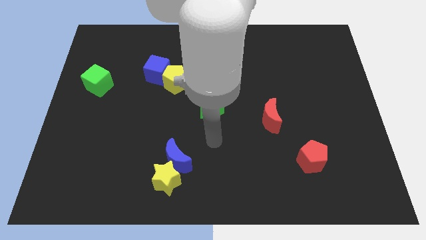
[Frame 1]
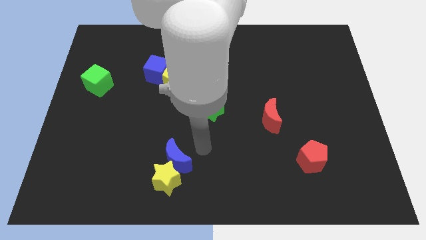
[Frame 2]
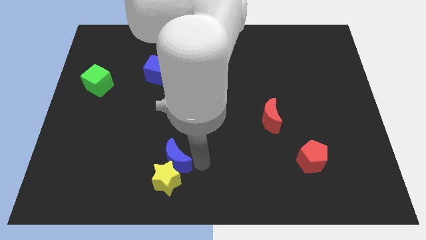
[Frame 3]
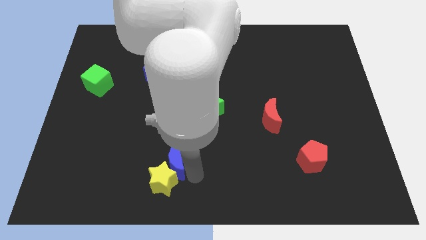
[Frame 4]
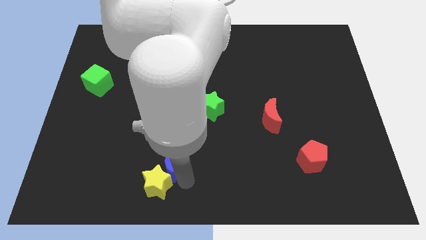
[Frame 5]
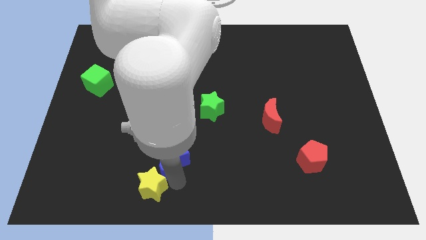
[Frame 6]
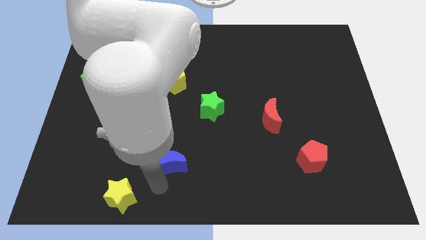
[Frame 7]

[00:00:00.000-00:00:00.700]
separate the blue moon from the yellow star

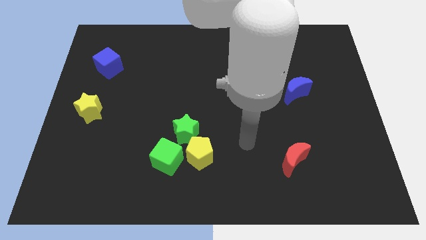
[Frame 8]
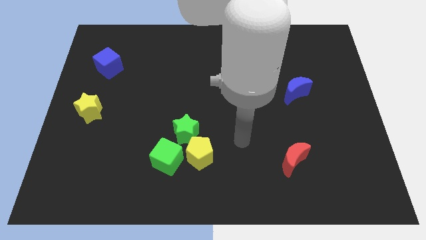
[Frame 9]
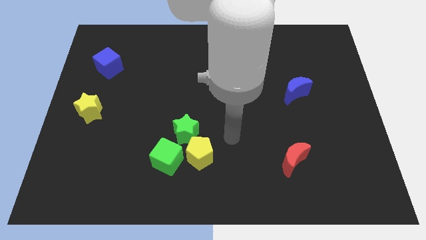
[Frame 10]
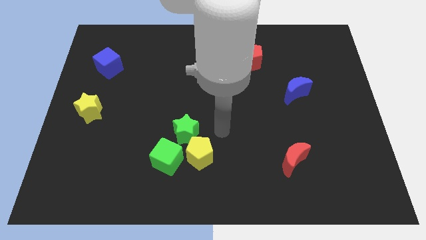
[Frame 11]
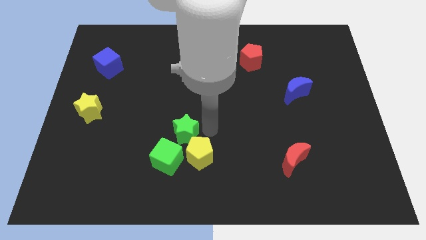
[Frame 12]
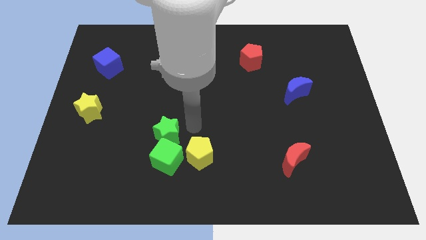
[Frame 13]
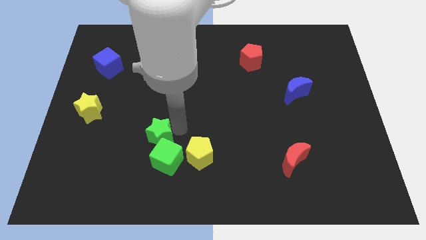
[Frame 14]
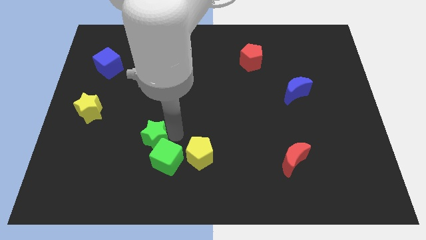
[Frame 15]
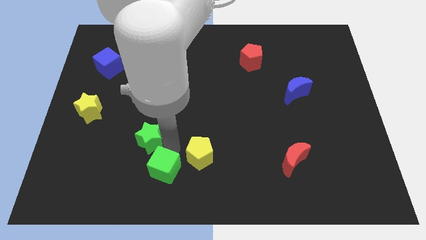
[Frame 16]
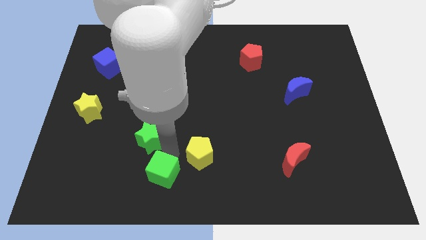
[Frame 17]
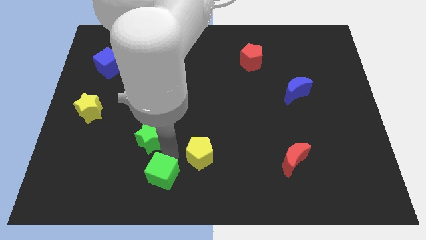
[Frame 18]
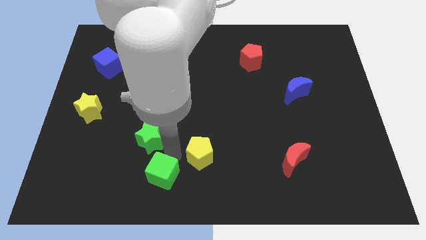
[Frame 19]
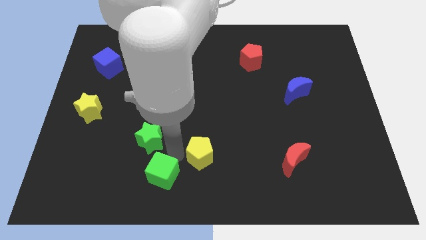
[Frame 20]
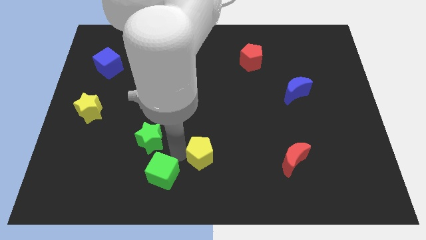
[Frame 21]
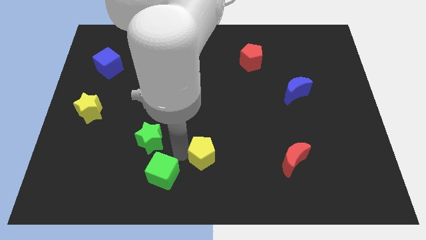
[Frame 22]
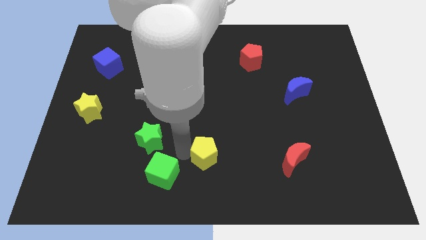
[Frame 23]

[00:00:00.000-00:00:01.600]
move the yellow pentagon away from the green star and green cube

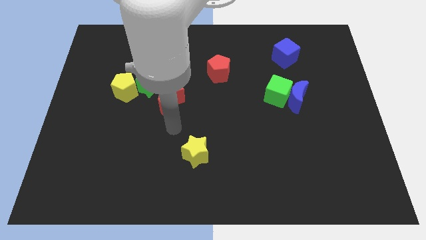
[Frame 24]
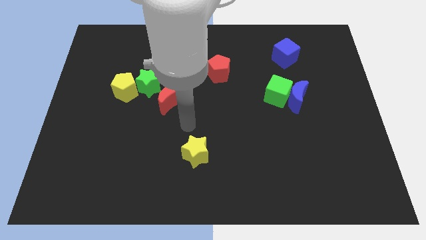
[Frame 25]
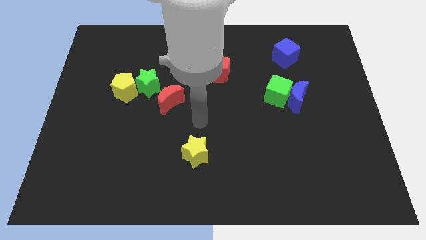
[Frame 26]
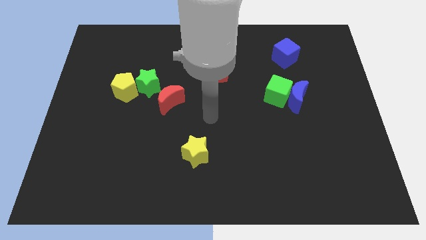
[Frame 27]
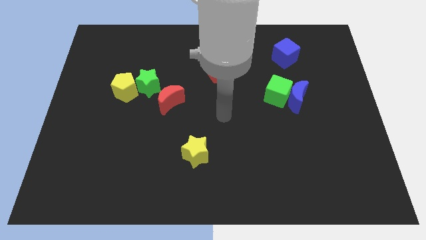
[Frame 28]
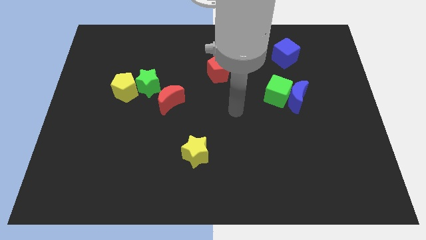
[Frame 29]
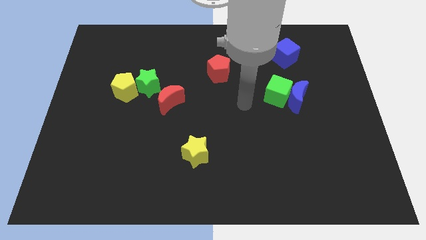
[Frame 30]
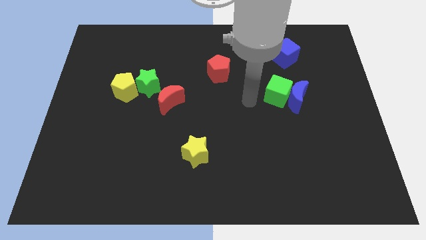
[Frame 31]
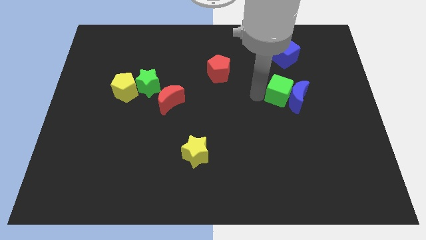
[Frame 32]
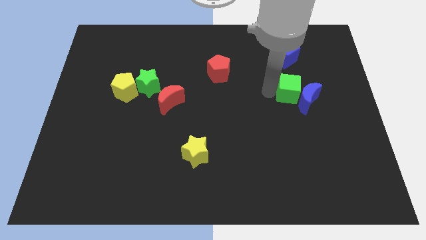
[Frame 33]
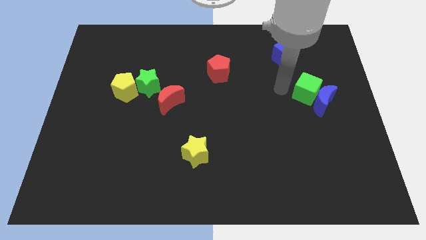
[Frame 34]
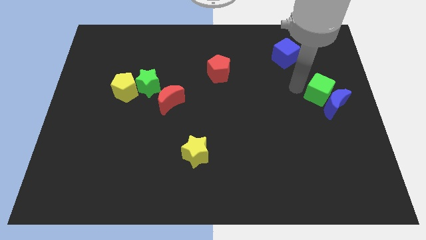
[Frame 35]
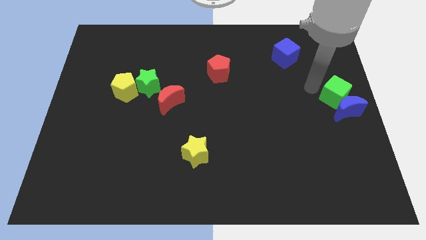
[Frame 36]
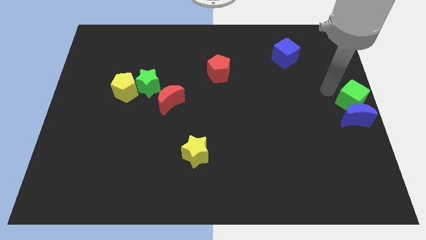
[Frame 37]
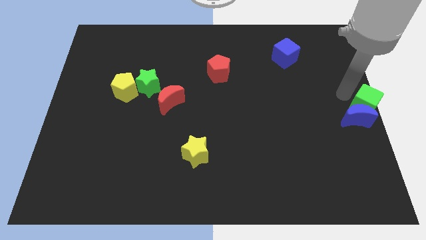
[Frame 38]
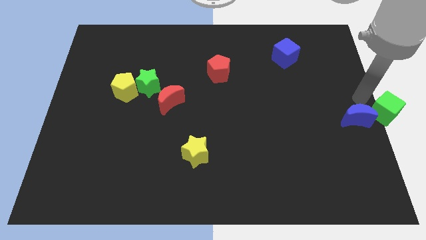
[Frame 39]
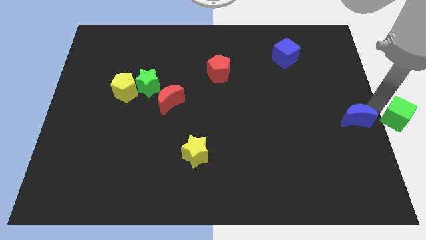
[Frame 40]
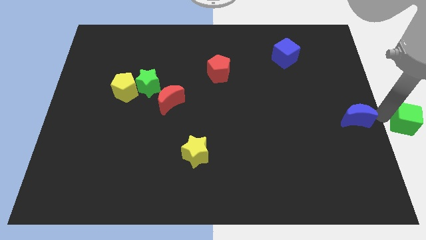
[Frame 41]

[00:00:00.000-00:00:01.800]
separate the blue moon from the green cube

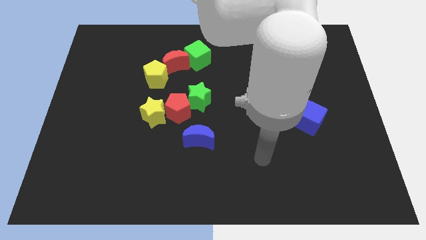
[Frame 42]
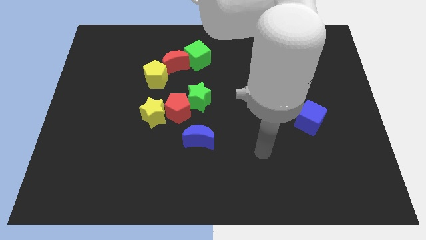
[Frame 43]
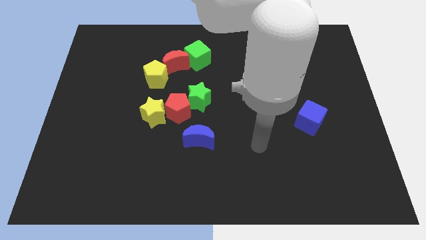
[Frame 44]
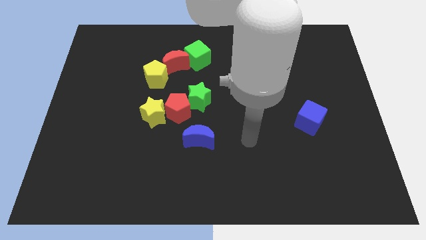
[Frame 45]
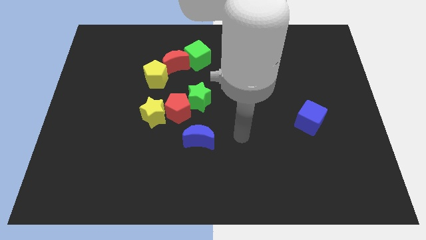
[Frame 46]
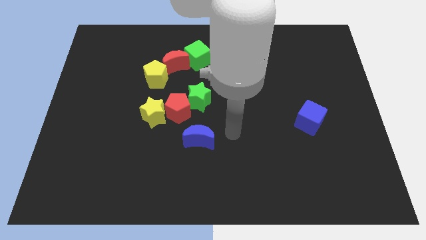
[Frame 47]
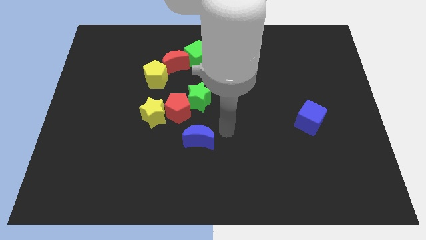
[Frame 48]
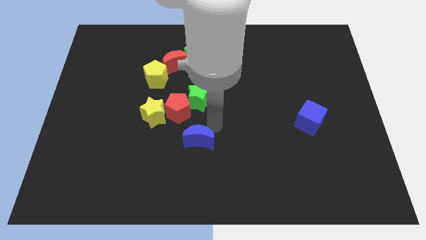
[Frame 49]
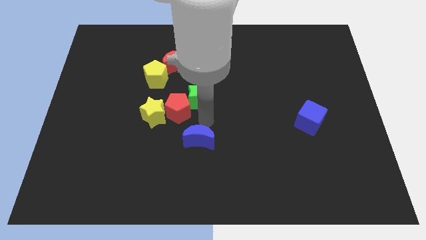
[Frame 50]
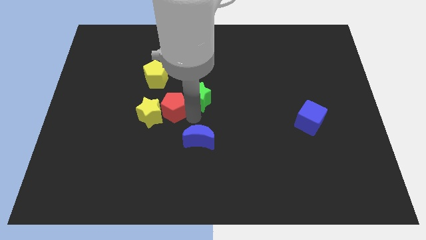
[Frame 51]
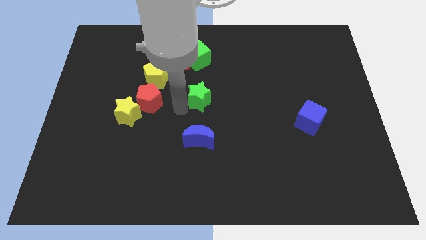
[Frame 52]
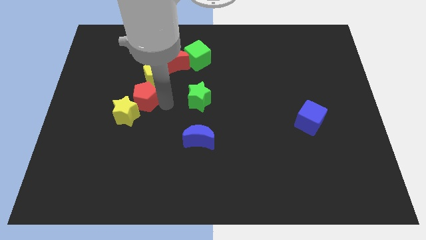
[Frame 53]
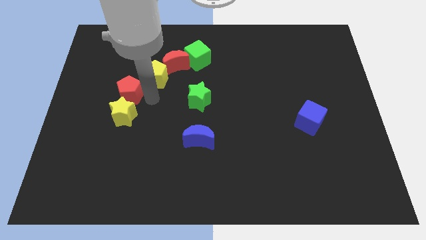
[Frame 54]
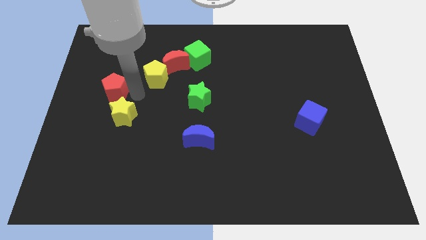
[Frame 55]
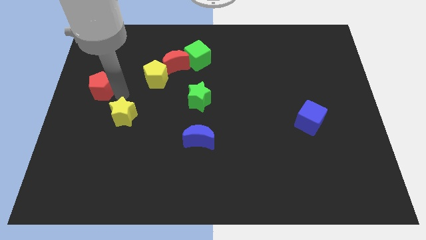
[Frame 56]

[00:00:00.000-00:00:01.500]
pull the yellow star apart from the red pentagon

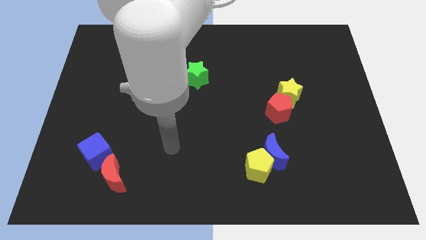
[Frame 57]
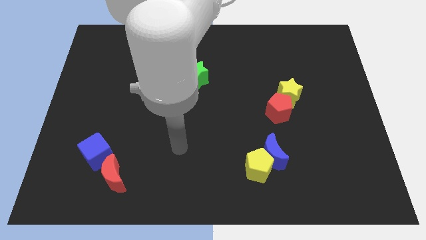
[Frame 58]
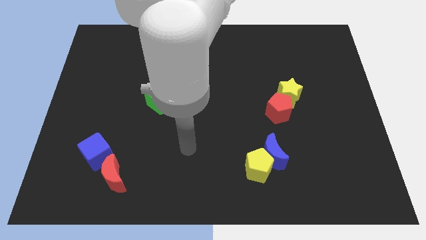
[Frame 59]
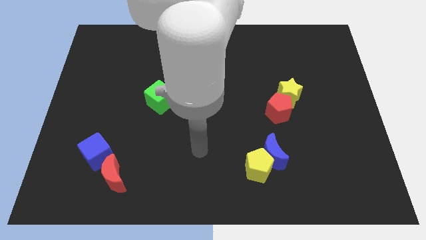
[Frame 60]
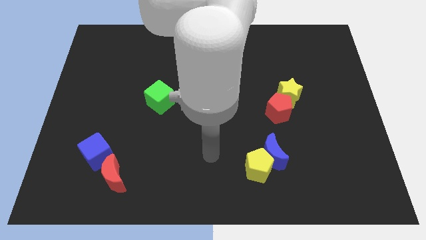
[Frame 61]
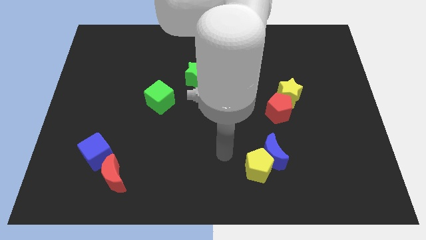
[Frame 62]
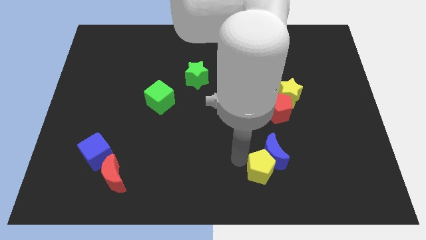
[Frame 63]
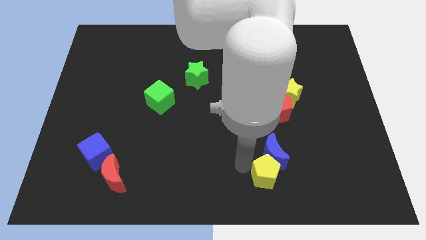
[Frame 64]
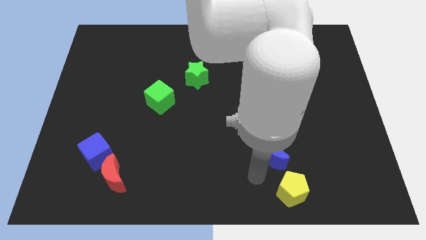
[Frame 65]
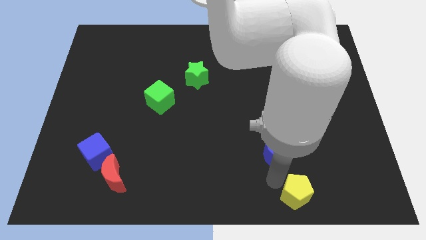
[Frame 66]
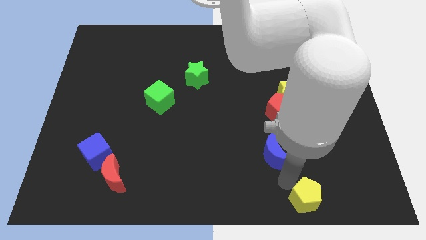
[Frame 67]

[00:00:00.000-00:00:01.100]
separate the blue moon from the yellow pentagon

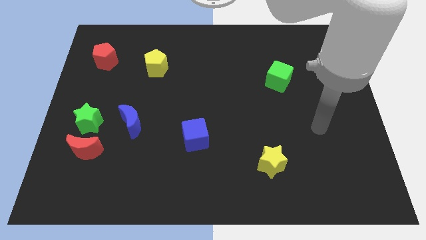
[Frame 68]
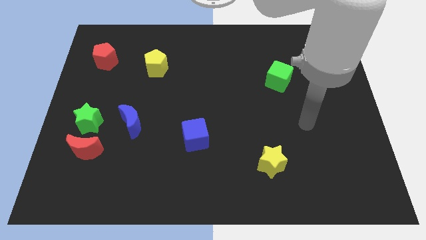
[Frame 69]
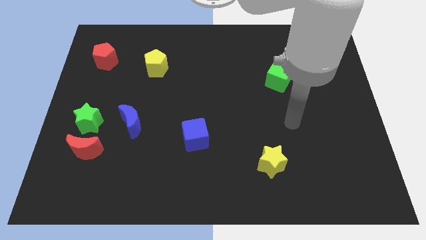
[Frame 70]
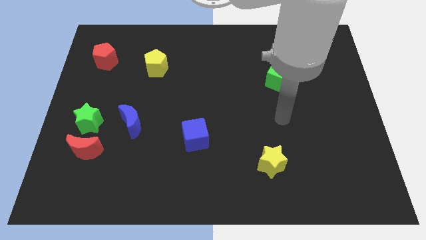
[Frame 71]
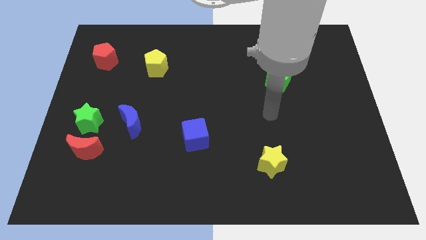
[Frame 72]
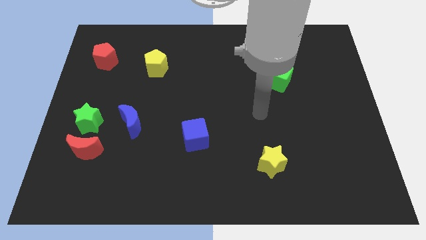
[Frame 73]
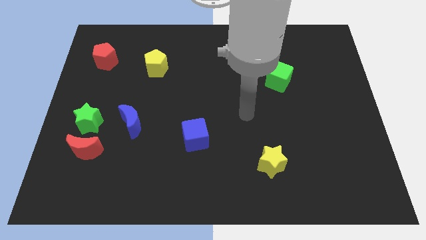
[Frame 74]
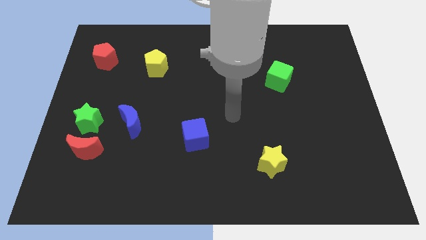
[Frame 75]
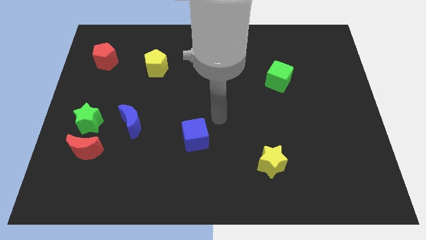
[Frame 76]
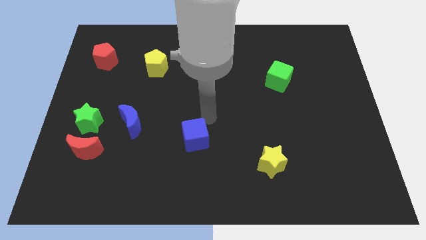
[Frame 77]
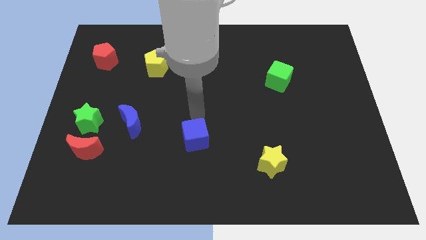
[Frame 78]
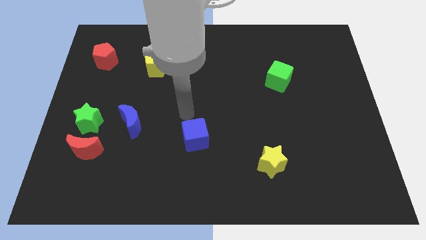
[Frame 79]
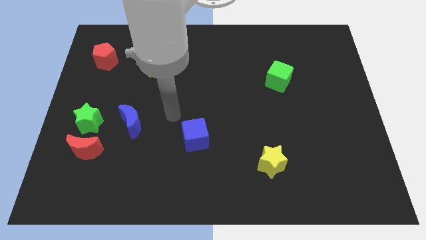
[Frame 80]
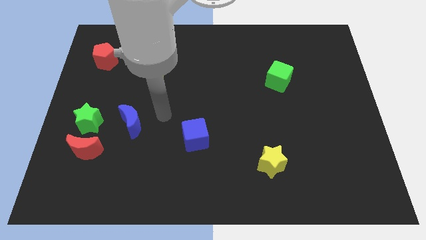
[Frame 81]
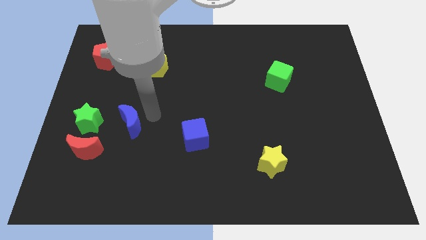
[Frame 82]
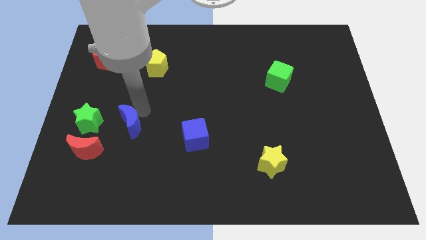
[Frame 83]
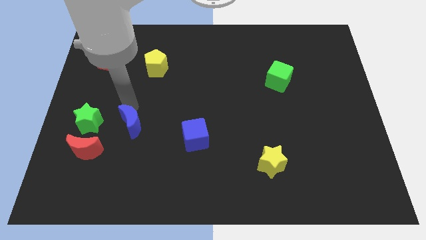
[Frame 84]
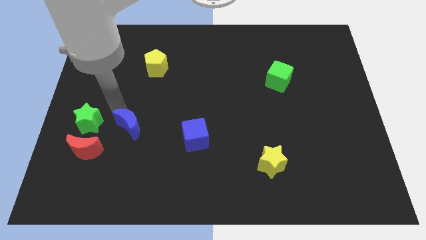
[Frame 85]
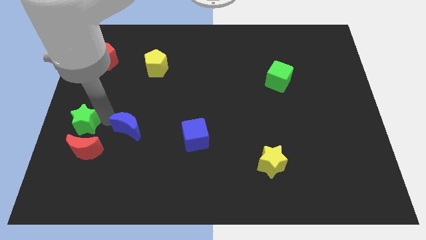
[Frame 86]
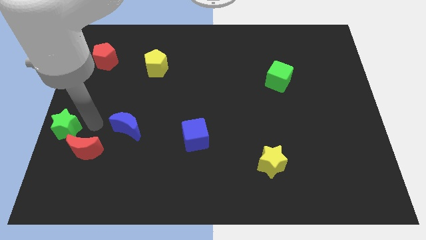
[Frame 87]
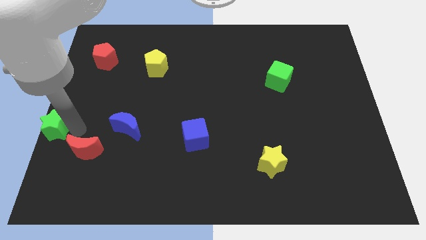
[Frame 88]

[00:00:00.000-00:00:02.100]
separate the red moon from the green star

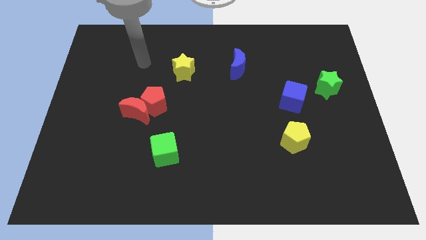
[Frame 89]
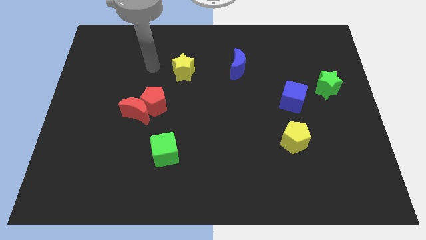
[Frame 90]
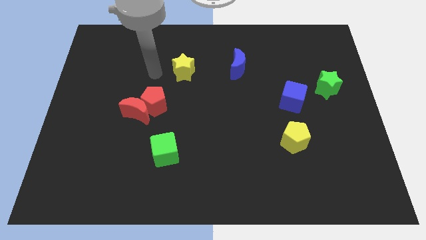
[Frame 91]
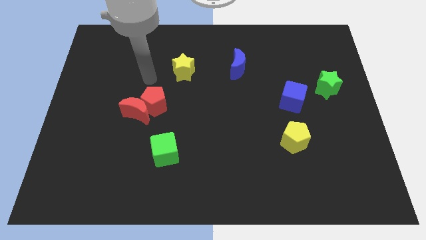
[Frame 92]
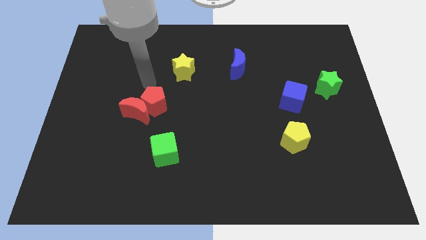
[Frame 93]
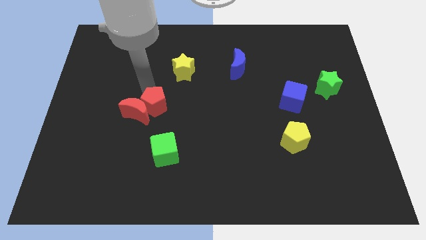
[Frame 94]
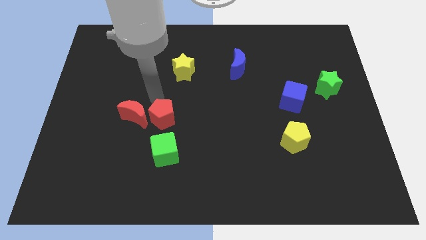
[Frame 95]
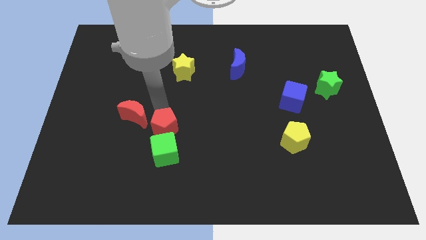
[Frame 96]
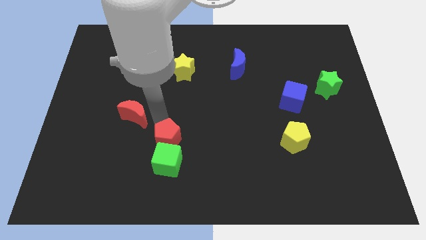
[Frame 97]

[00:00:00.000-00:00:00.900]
move the red moon away from the red pentagon
